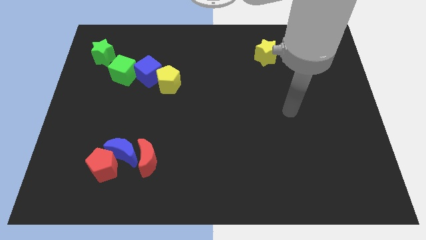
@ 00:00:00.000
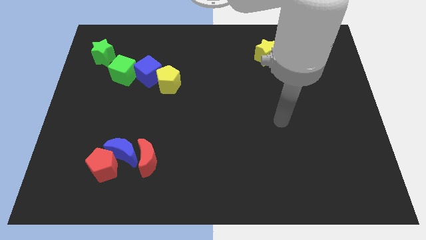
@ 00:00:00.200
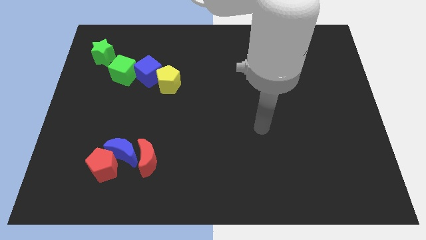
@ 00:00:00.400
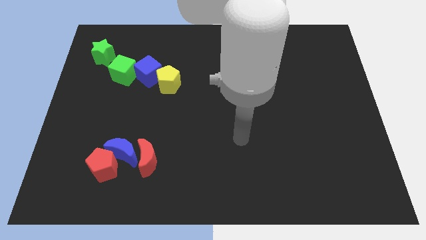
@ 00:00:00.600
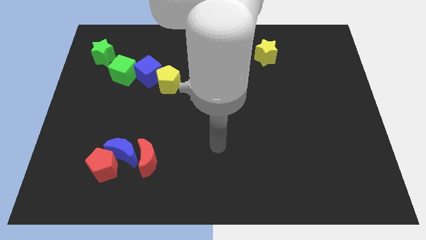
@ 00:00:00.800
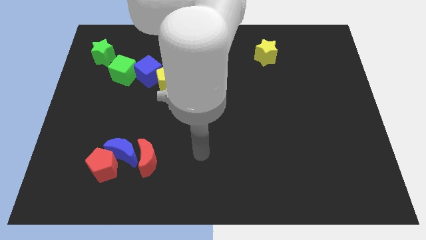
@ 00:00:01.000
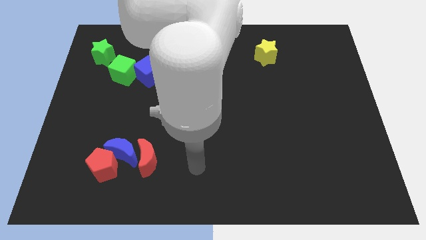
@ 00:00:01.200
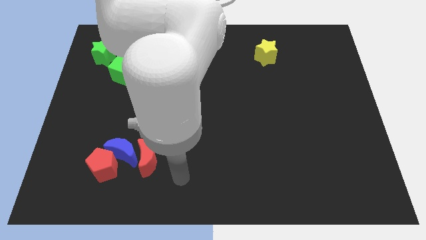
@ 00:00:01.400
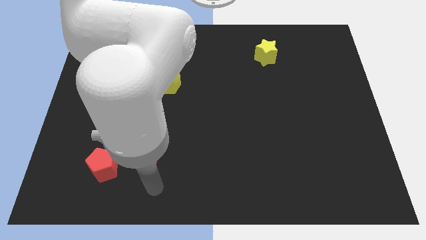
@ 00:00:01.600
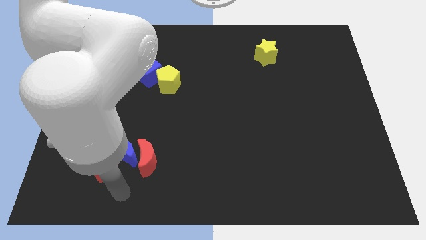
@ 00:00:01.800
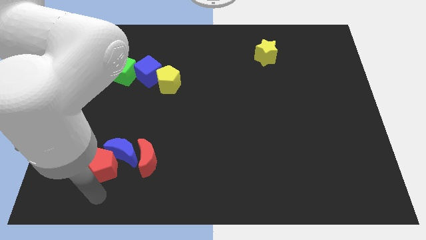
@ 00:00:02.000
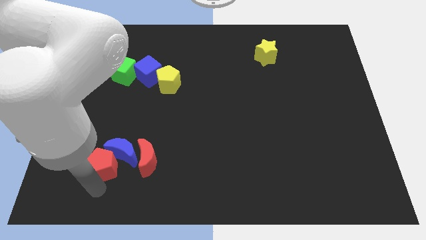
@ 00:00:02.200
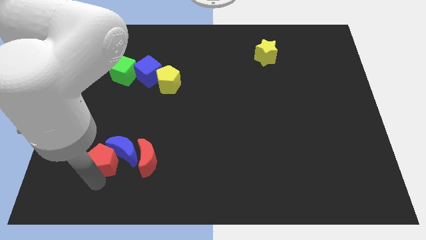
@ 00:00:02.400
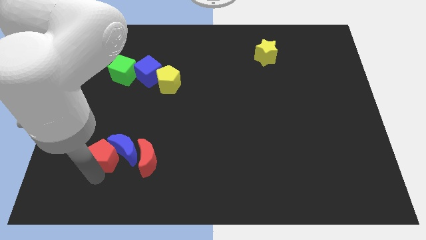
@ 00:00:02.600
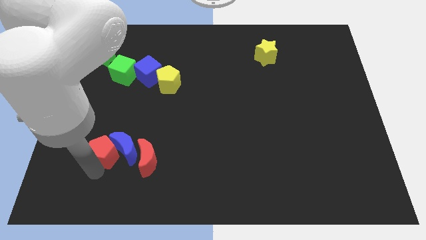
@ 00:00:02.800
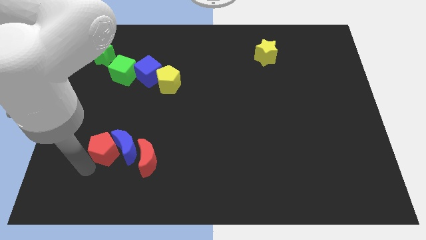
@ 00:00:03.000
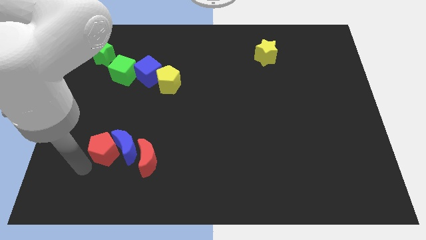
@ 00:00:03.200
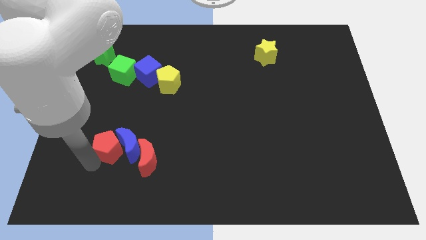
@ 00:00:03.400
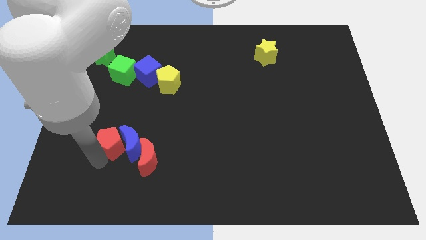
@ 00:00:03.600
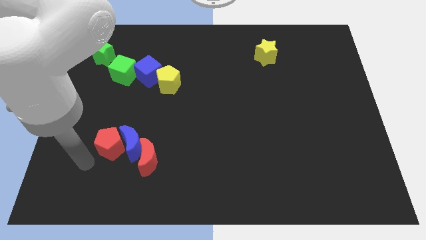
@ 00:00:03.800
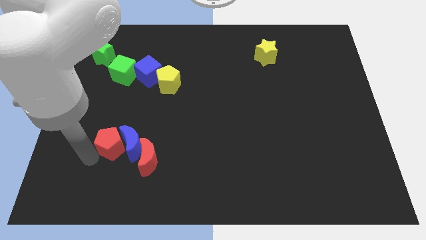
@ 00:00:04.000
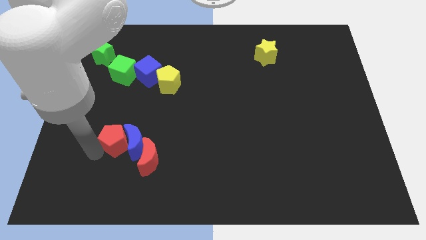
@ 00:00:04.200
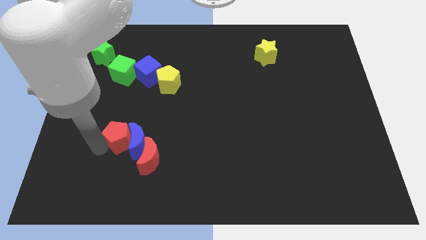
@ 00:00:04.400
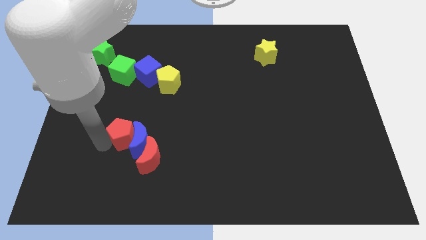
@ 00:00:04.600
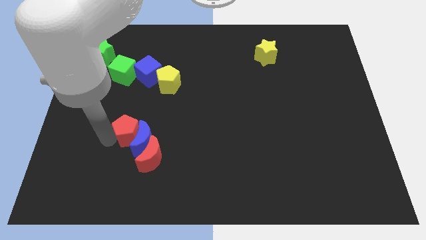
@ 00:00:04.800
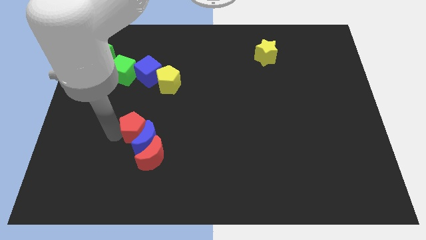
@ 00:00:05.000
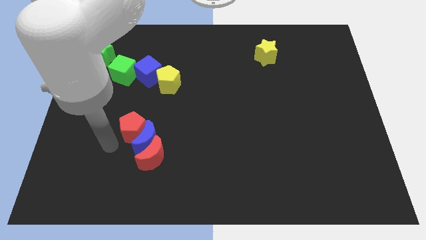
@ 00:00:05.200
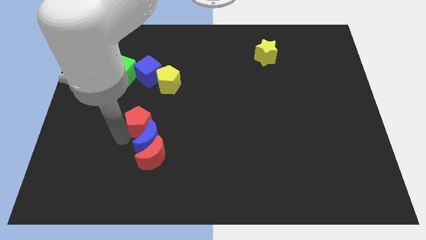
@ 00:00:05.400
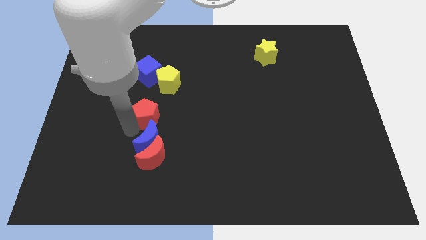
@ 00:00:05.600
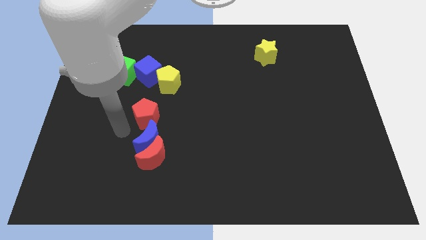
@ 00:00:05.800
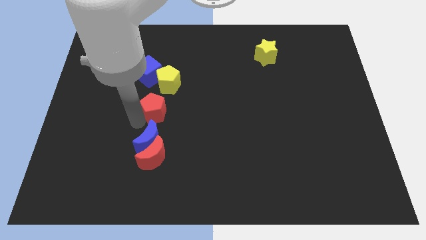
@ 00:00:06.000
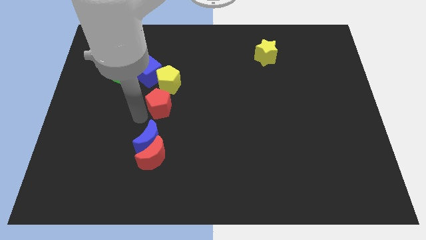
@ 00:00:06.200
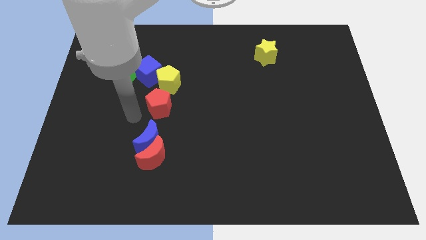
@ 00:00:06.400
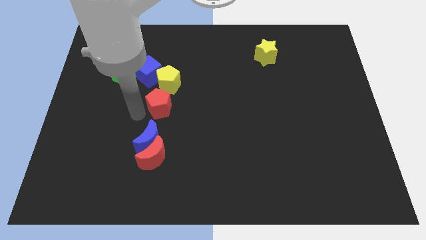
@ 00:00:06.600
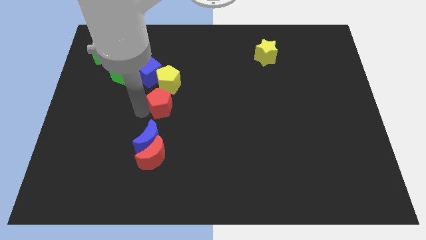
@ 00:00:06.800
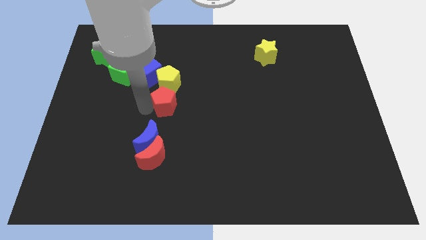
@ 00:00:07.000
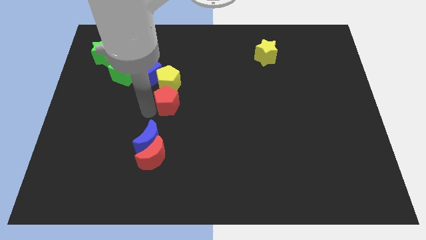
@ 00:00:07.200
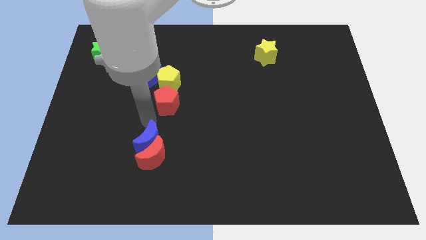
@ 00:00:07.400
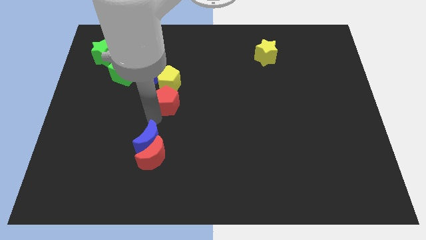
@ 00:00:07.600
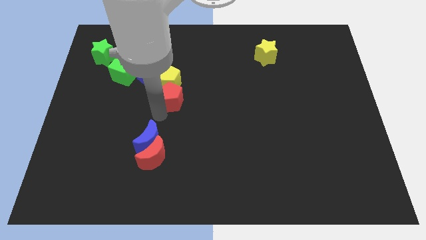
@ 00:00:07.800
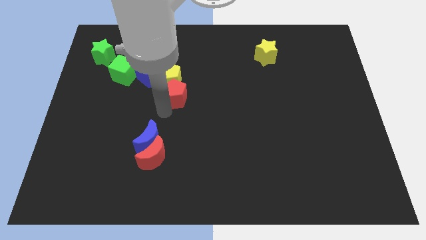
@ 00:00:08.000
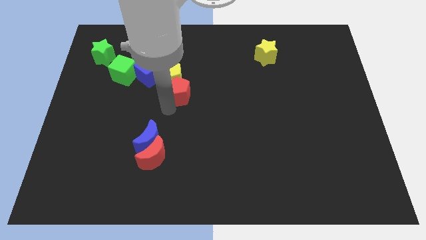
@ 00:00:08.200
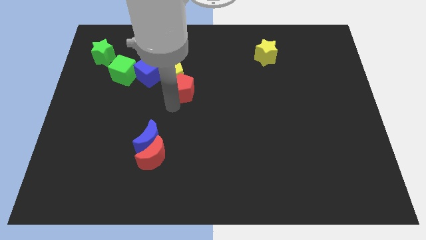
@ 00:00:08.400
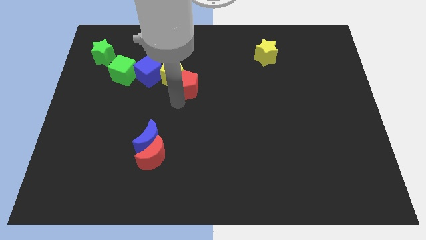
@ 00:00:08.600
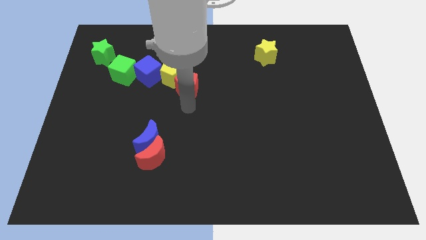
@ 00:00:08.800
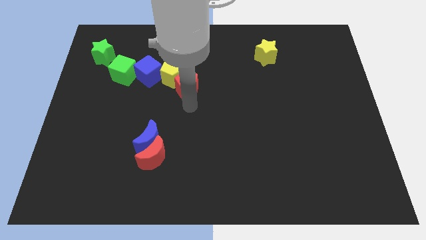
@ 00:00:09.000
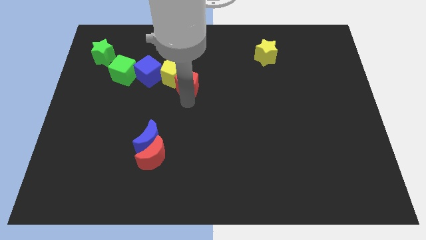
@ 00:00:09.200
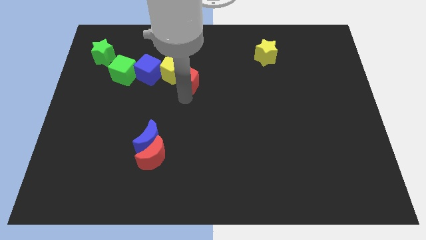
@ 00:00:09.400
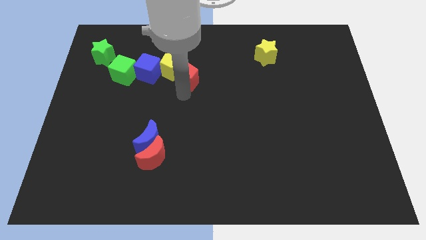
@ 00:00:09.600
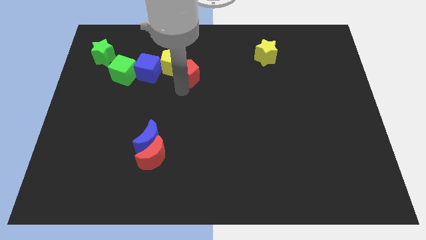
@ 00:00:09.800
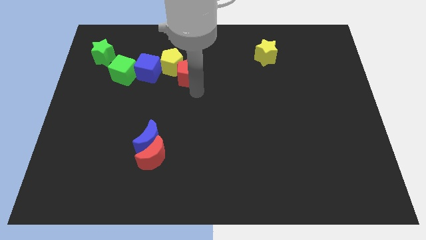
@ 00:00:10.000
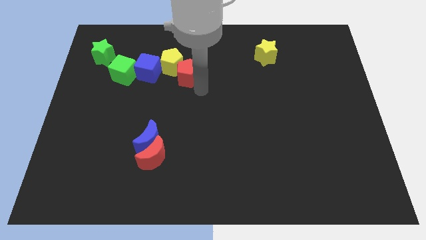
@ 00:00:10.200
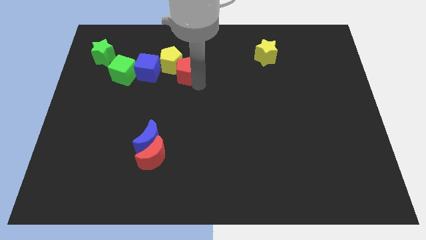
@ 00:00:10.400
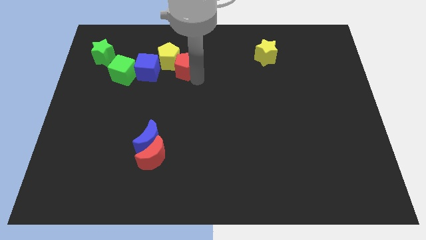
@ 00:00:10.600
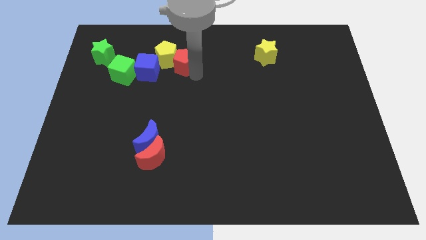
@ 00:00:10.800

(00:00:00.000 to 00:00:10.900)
push the red pentagon to the top right side of the blue cube

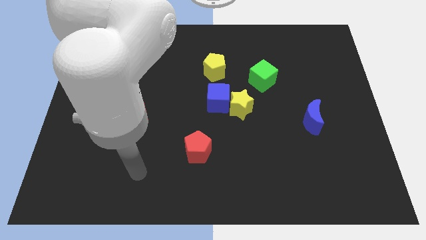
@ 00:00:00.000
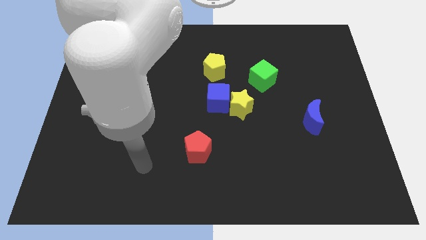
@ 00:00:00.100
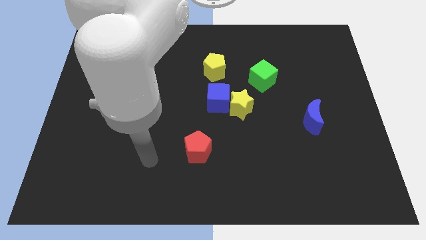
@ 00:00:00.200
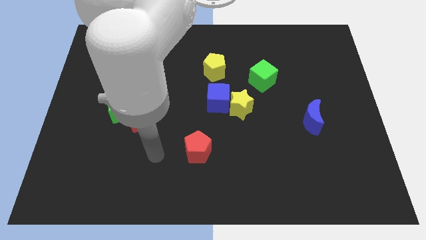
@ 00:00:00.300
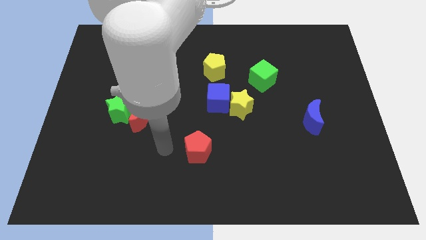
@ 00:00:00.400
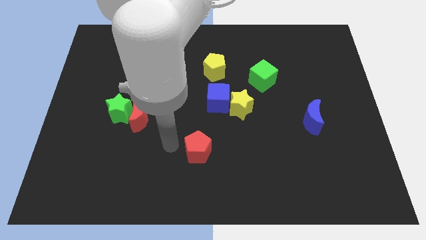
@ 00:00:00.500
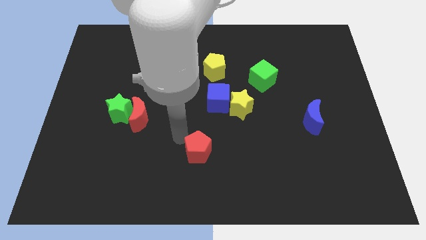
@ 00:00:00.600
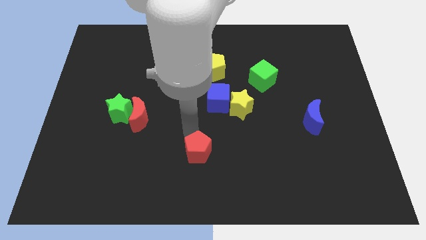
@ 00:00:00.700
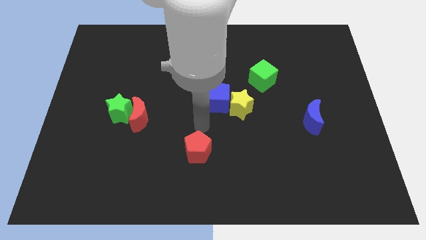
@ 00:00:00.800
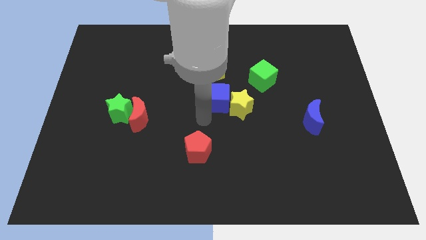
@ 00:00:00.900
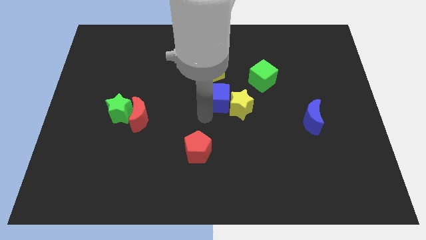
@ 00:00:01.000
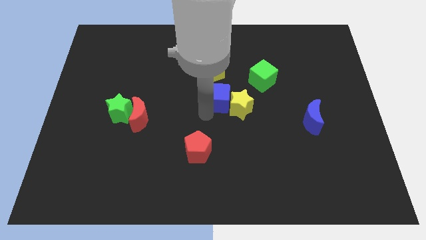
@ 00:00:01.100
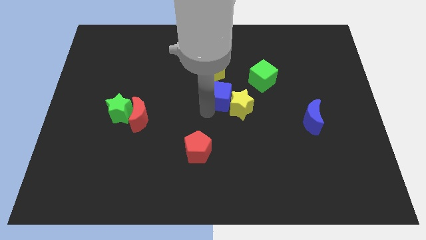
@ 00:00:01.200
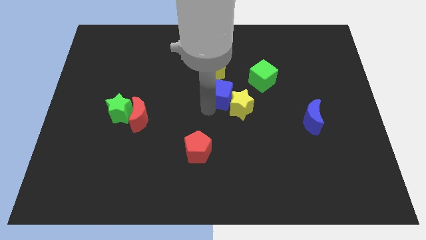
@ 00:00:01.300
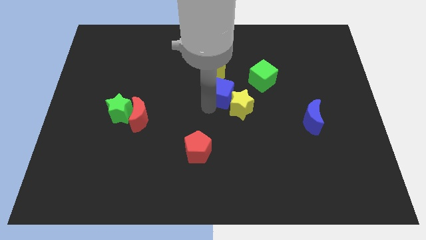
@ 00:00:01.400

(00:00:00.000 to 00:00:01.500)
push the blue cube above the yellow star
